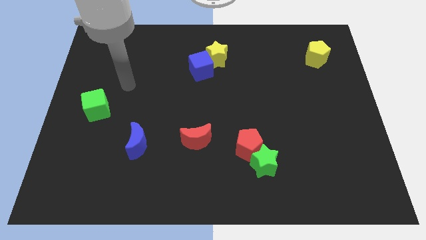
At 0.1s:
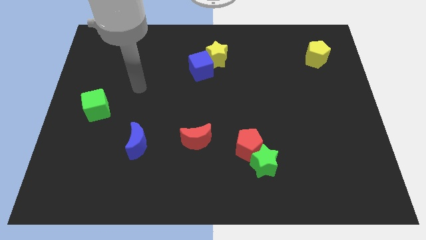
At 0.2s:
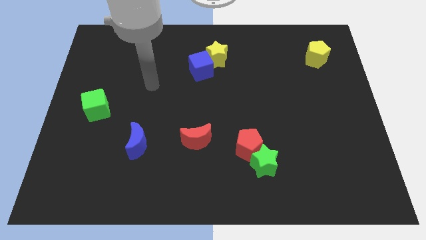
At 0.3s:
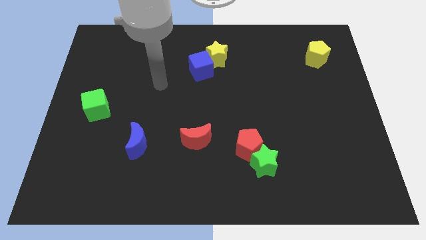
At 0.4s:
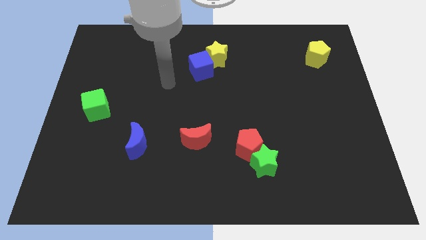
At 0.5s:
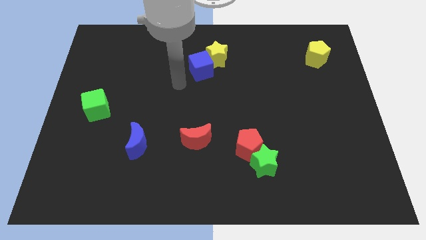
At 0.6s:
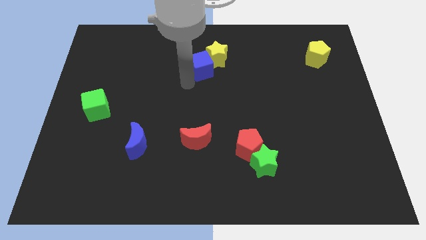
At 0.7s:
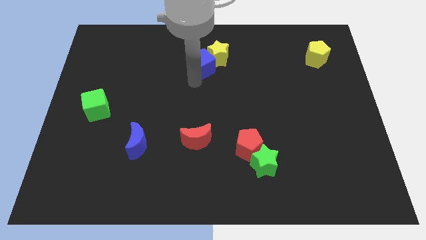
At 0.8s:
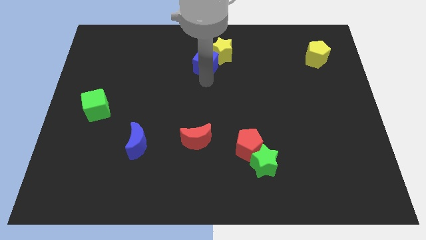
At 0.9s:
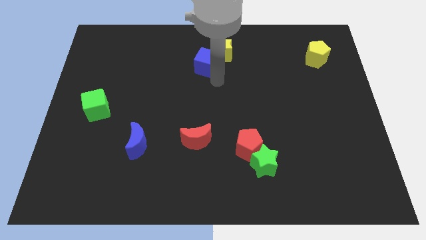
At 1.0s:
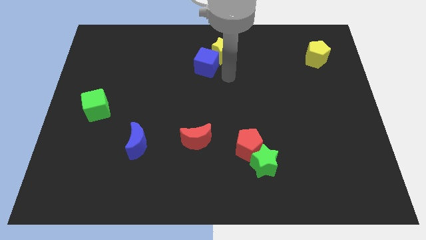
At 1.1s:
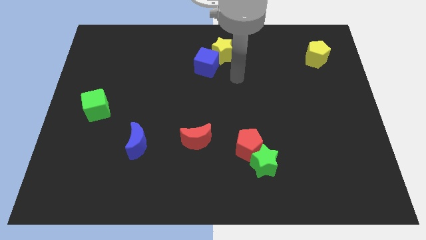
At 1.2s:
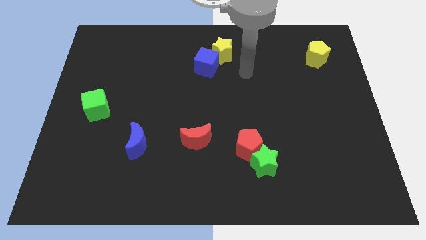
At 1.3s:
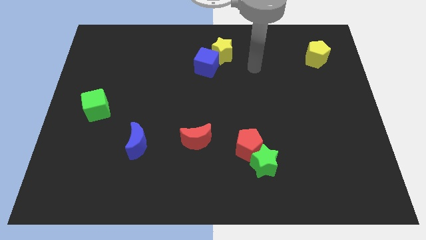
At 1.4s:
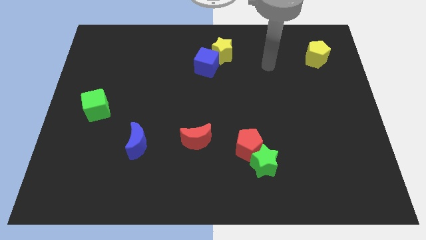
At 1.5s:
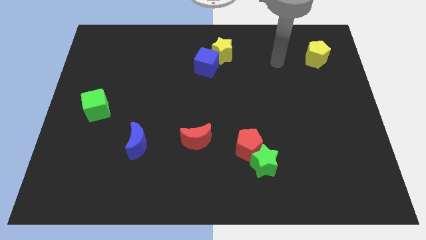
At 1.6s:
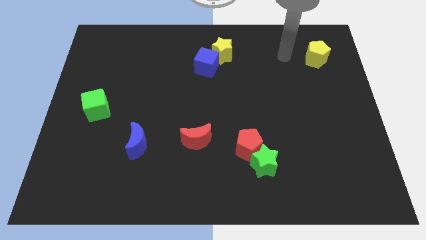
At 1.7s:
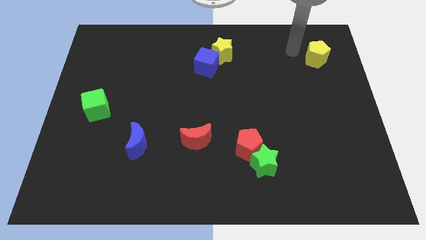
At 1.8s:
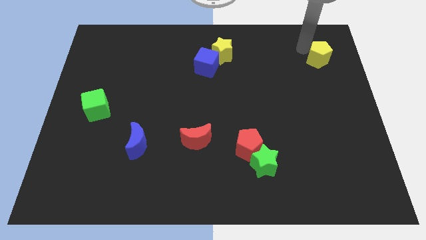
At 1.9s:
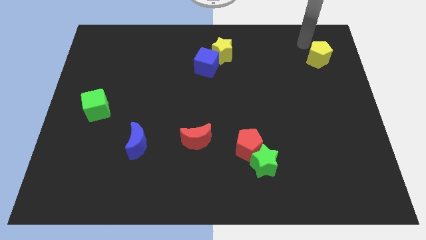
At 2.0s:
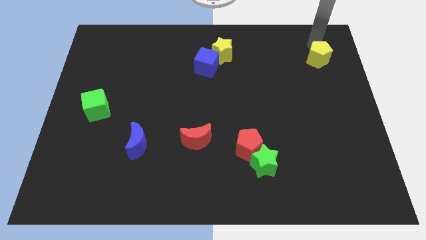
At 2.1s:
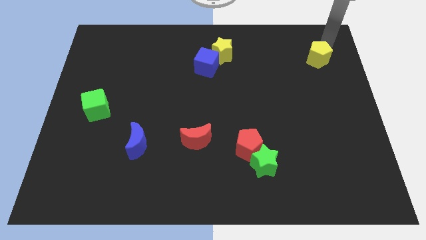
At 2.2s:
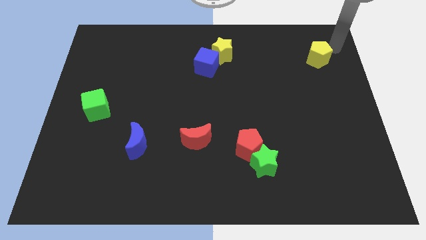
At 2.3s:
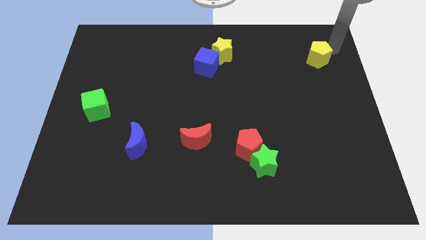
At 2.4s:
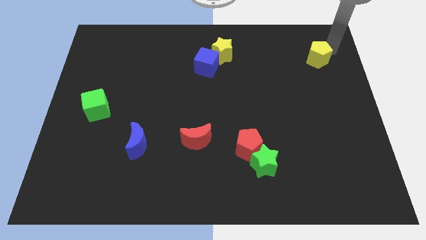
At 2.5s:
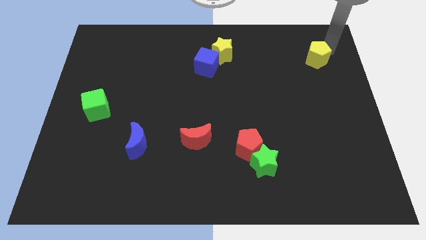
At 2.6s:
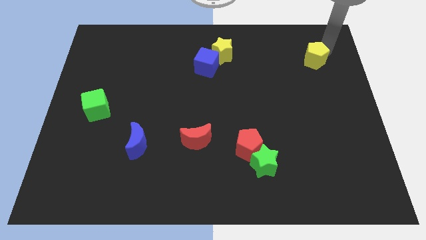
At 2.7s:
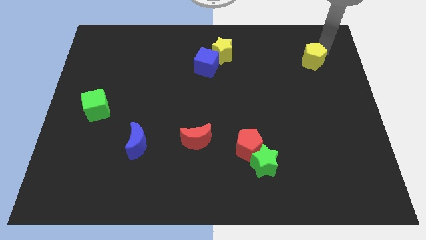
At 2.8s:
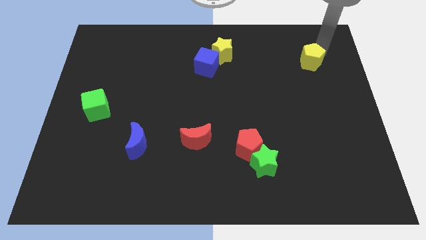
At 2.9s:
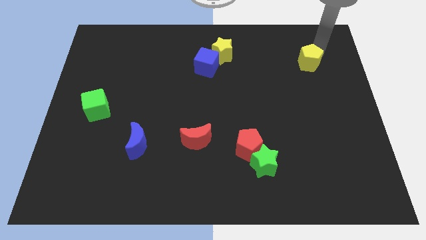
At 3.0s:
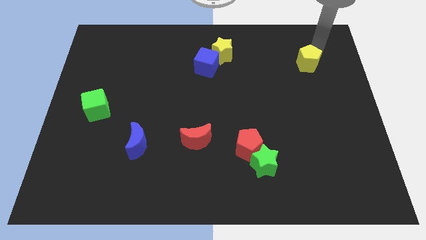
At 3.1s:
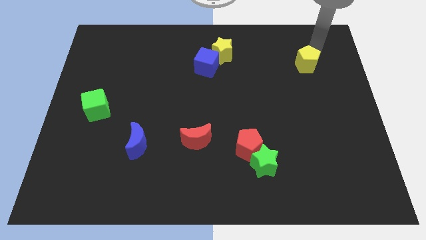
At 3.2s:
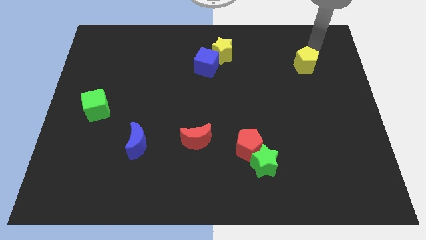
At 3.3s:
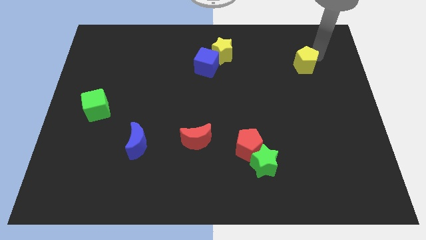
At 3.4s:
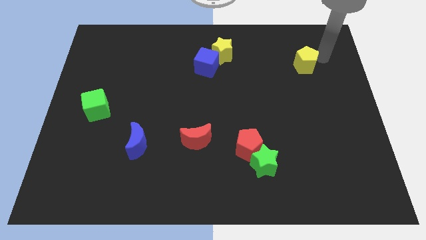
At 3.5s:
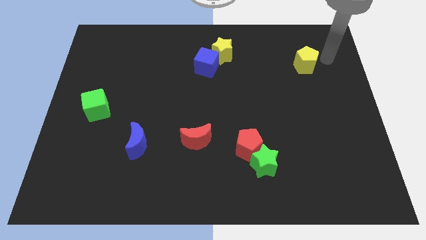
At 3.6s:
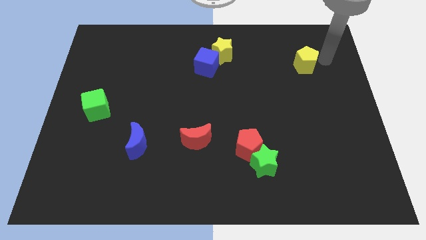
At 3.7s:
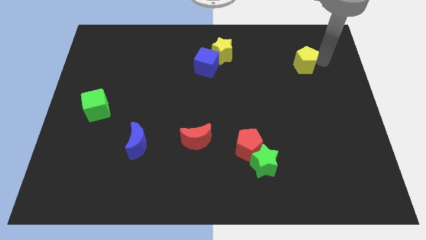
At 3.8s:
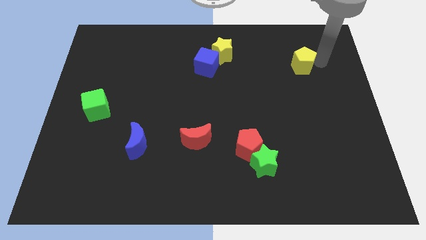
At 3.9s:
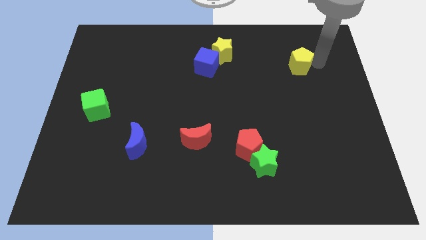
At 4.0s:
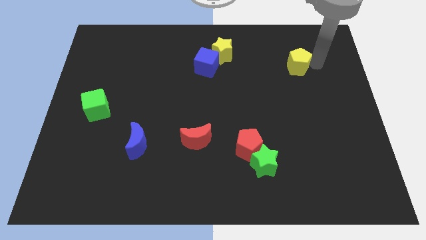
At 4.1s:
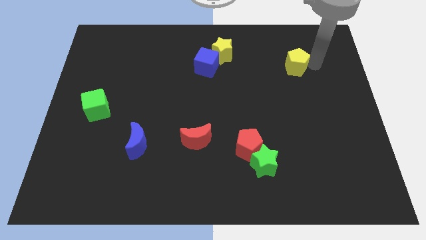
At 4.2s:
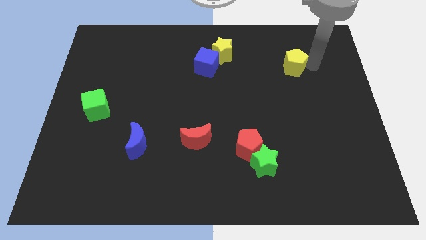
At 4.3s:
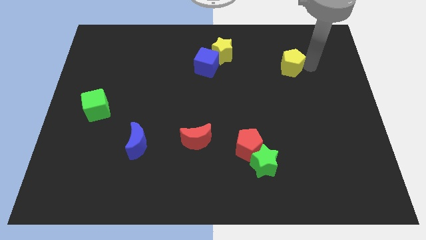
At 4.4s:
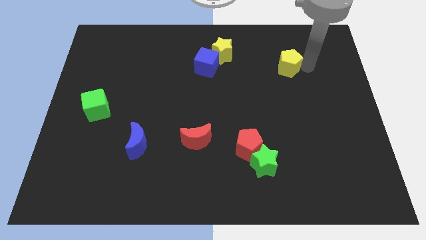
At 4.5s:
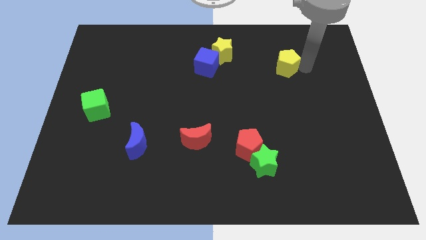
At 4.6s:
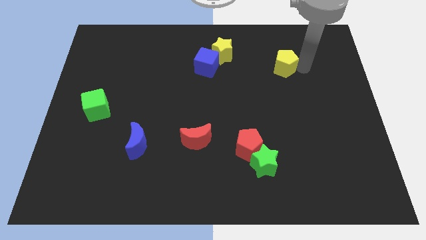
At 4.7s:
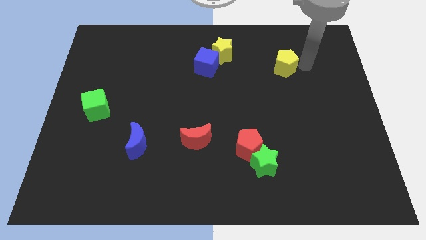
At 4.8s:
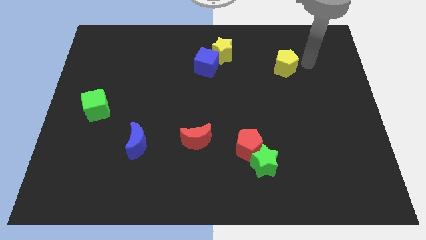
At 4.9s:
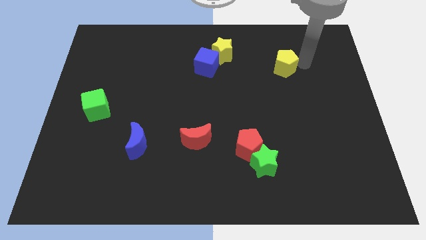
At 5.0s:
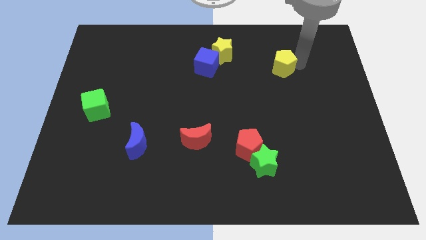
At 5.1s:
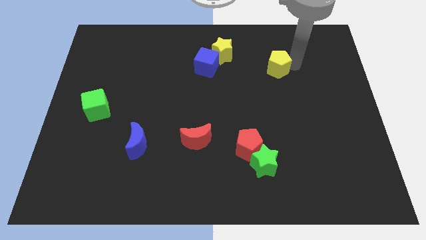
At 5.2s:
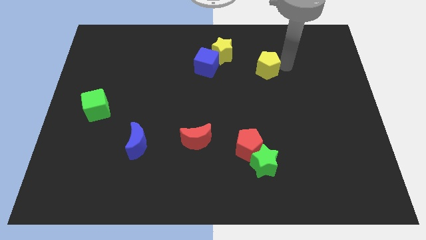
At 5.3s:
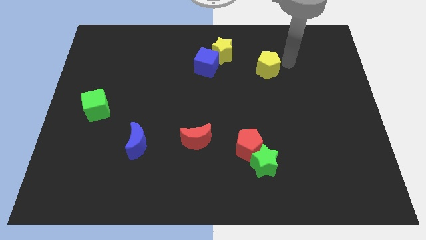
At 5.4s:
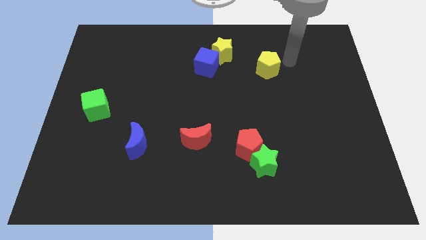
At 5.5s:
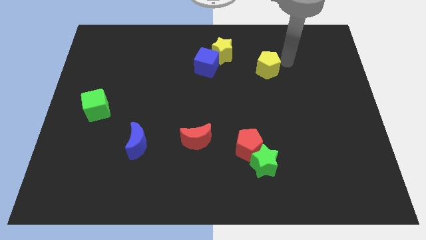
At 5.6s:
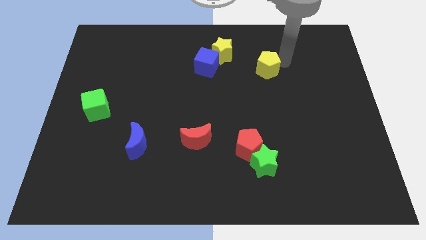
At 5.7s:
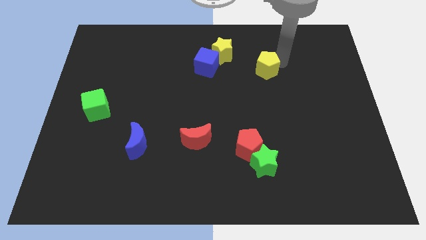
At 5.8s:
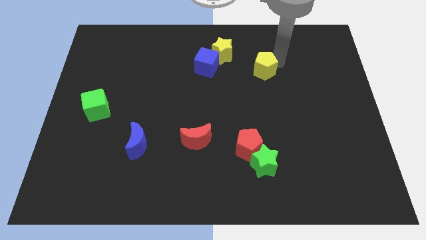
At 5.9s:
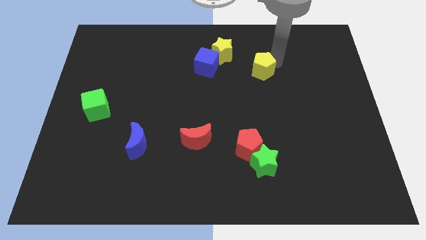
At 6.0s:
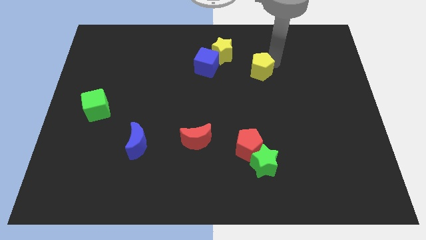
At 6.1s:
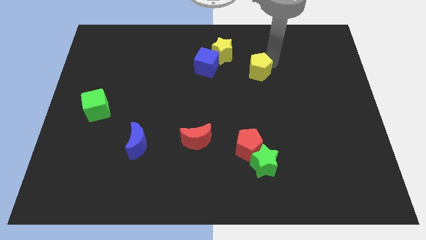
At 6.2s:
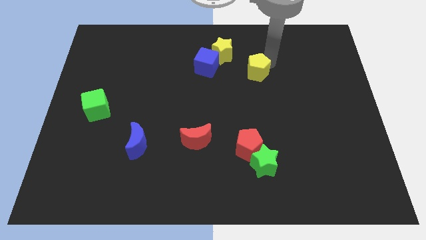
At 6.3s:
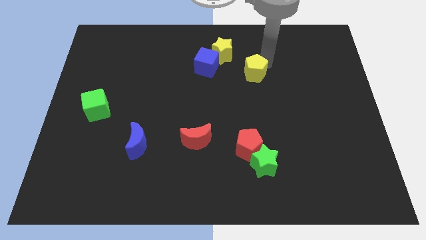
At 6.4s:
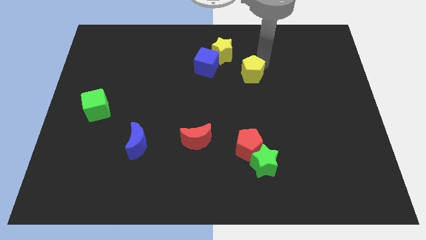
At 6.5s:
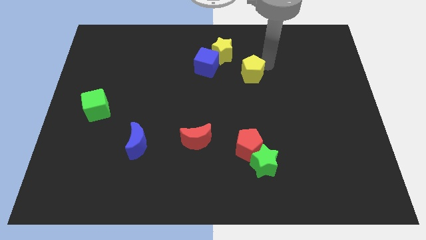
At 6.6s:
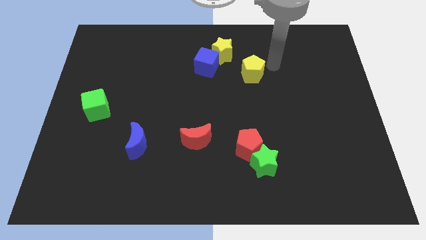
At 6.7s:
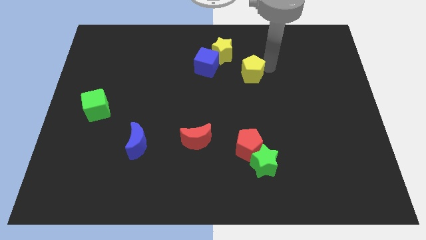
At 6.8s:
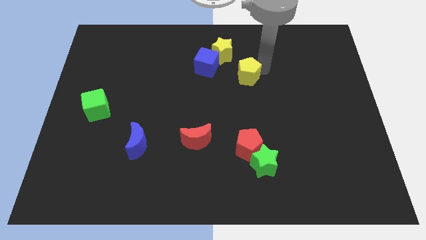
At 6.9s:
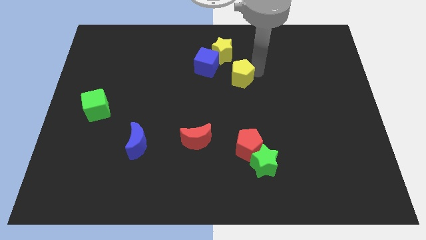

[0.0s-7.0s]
put the yellow pentagon to the bottom right side of the blue cube

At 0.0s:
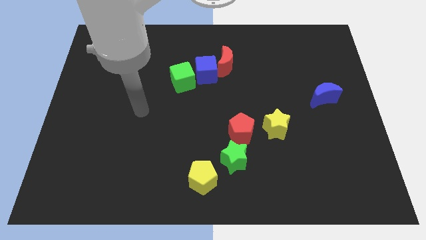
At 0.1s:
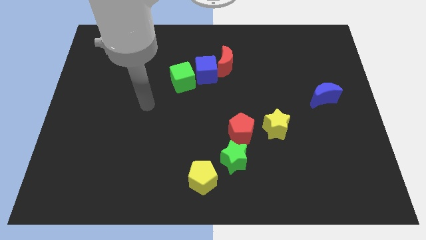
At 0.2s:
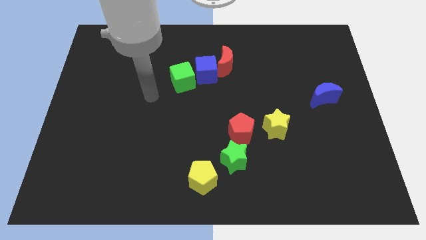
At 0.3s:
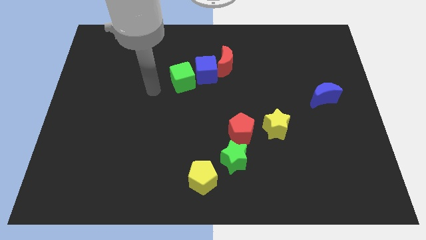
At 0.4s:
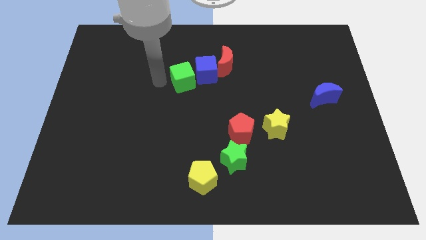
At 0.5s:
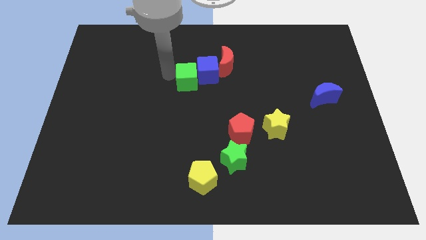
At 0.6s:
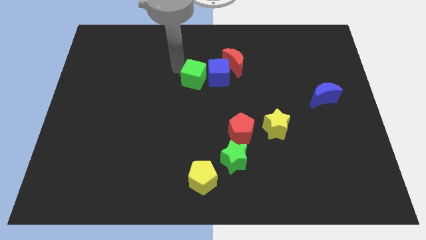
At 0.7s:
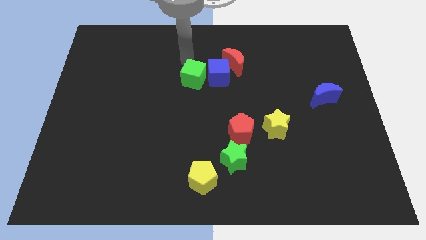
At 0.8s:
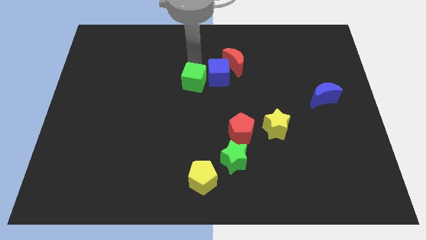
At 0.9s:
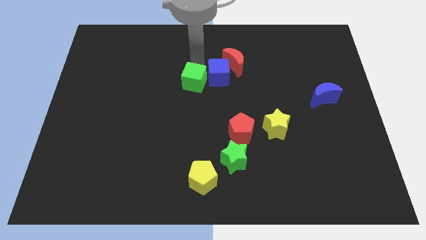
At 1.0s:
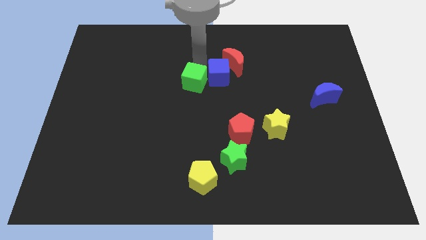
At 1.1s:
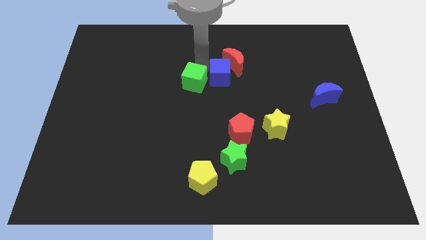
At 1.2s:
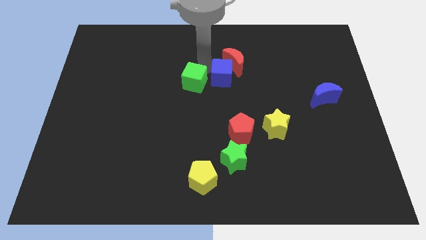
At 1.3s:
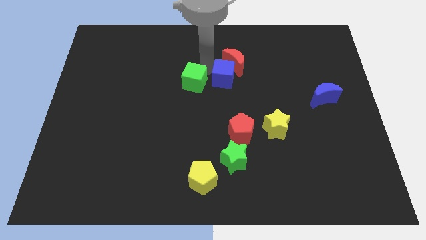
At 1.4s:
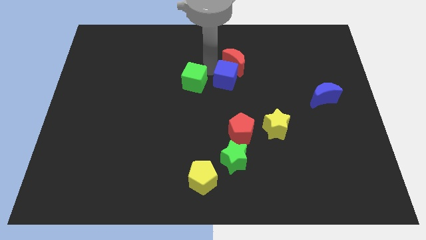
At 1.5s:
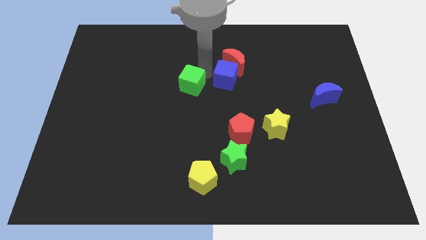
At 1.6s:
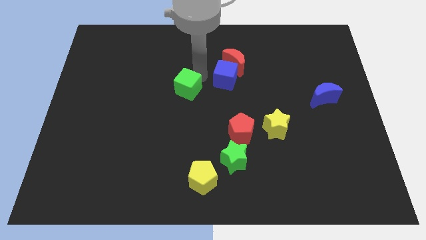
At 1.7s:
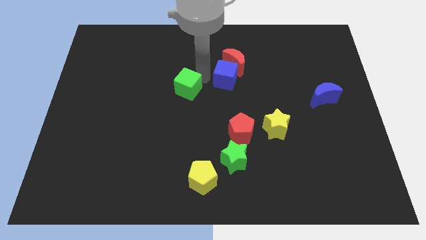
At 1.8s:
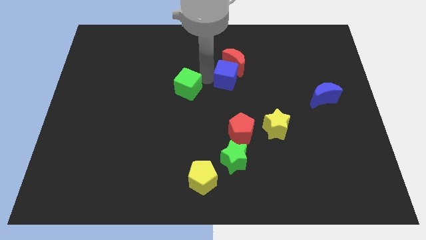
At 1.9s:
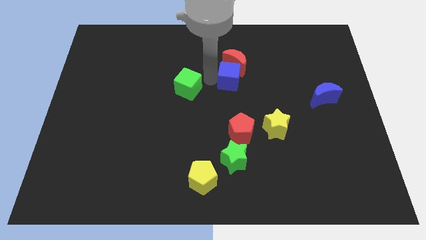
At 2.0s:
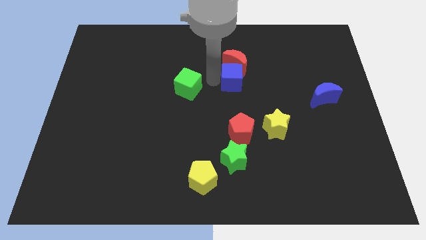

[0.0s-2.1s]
move the blue cube to the bottom right of the red moon
